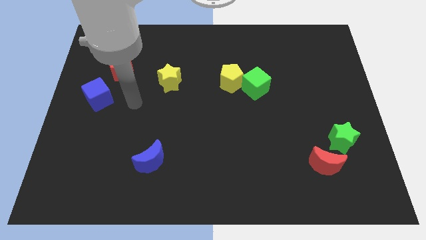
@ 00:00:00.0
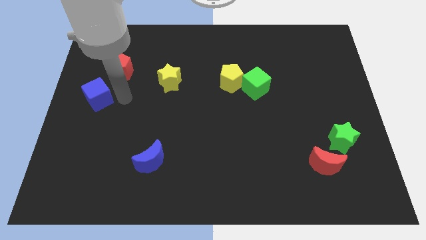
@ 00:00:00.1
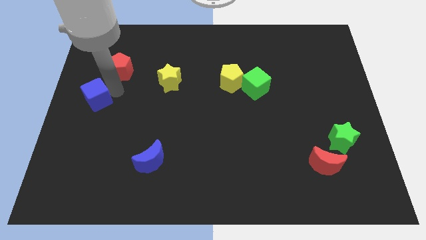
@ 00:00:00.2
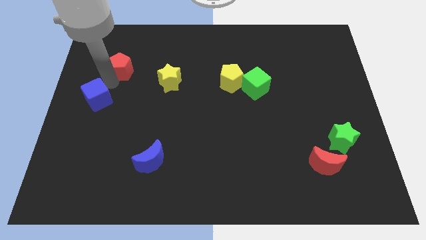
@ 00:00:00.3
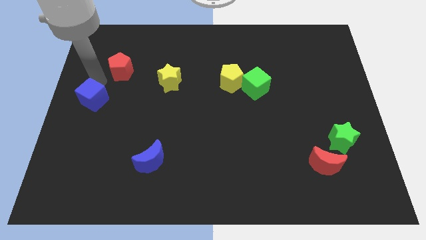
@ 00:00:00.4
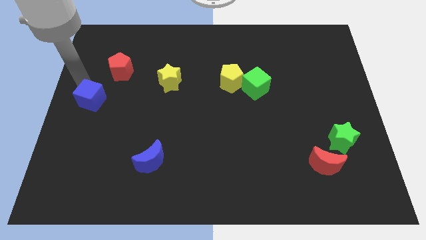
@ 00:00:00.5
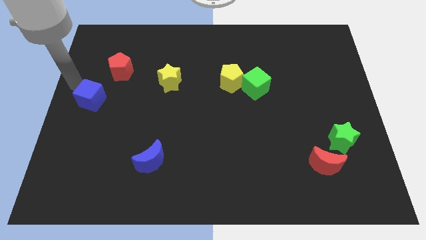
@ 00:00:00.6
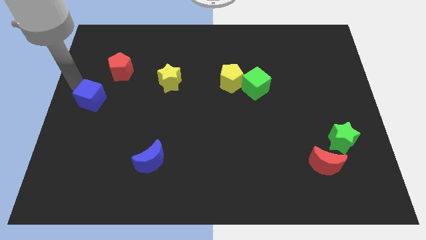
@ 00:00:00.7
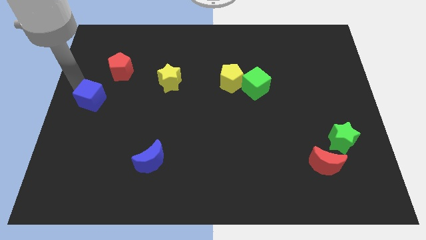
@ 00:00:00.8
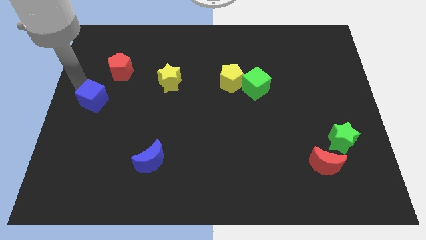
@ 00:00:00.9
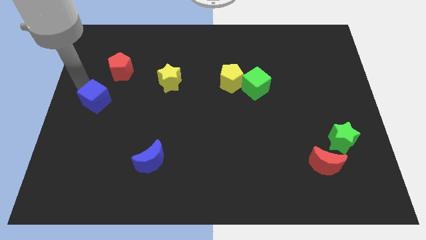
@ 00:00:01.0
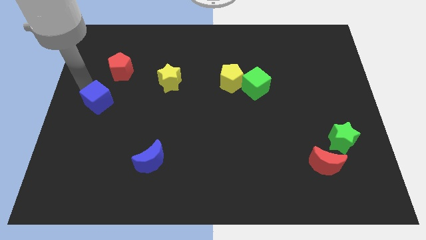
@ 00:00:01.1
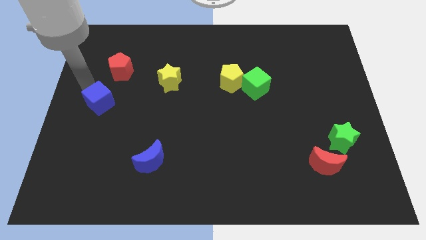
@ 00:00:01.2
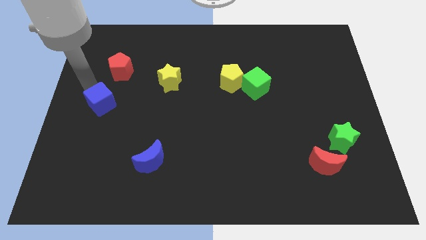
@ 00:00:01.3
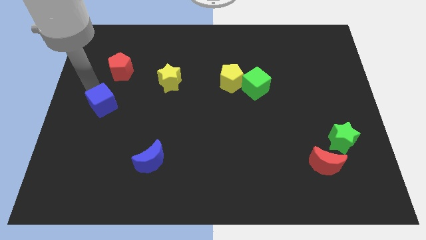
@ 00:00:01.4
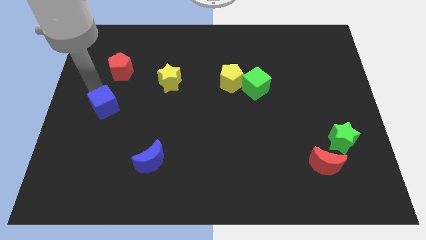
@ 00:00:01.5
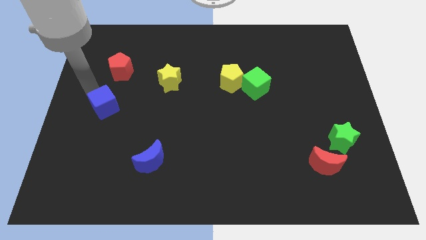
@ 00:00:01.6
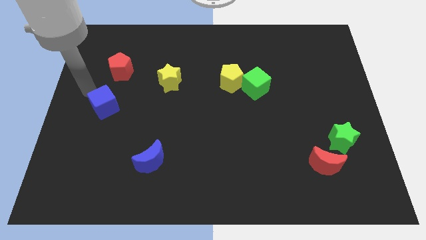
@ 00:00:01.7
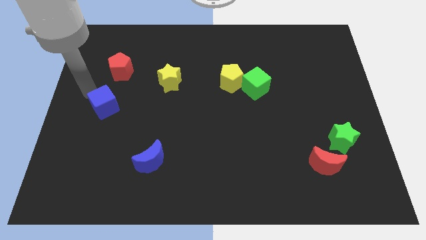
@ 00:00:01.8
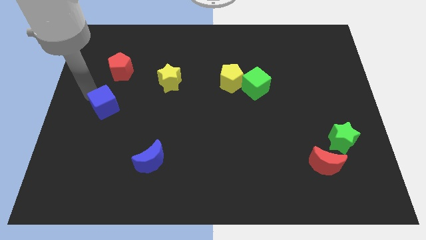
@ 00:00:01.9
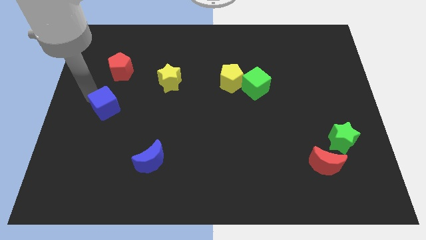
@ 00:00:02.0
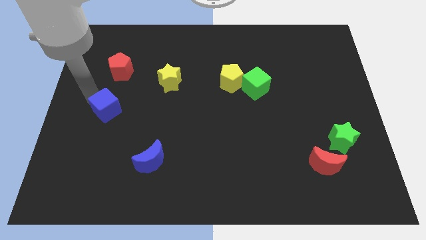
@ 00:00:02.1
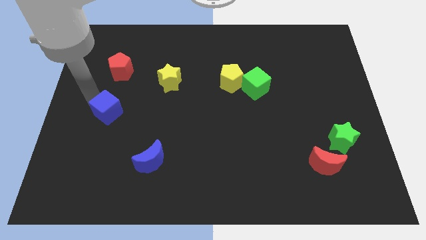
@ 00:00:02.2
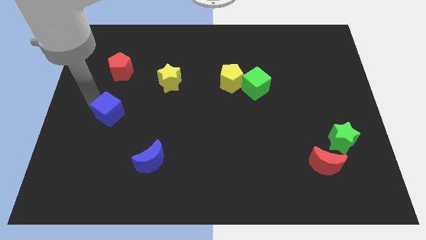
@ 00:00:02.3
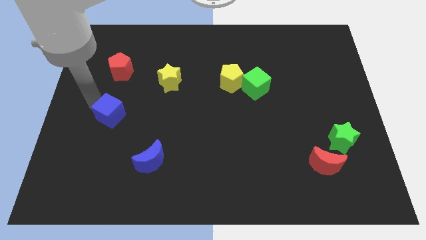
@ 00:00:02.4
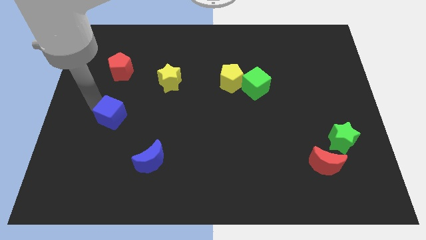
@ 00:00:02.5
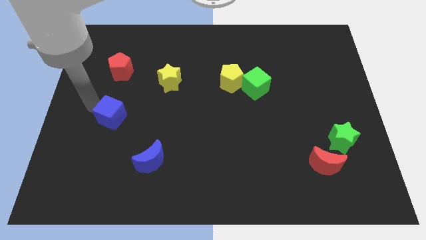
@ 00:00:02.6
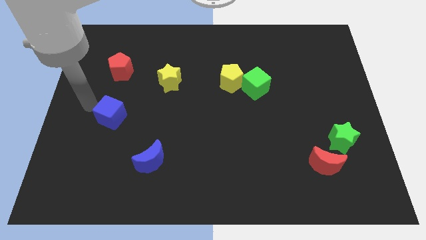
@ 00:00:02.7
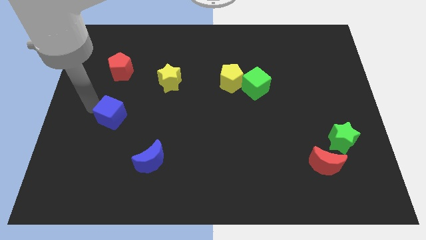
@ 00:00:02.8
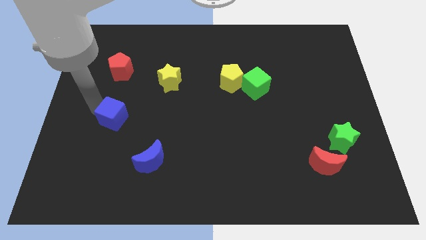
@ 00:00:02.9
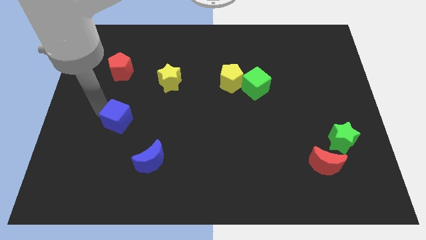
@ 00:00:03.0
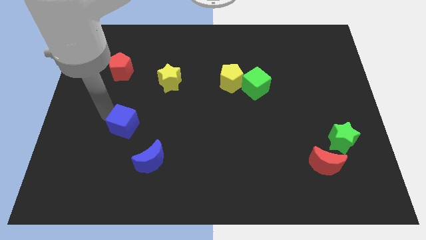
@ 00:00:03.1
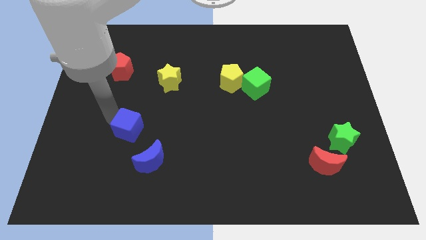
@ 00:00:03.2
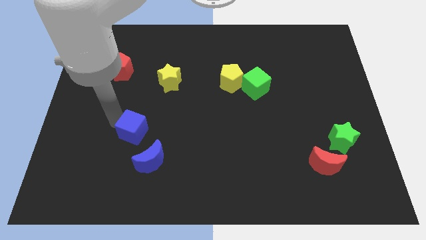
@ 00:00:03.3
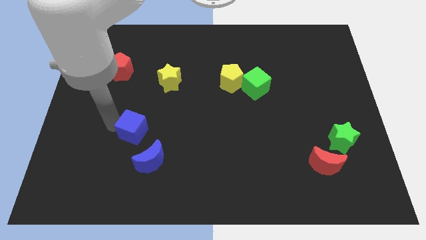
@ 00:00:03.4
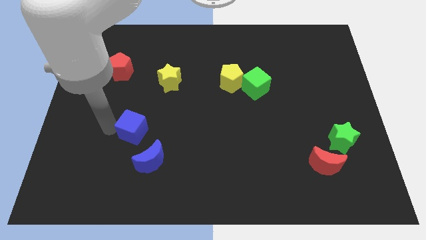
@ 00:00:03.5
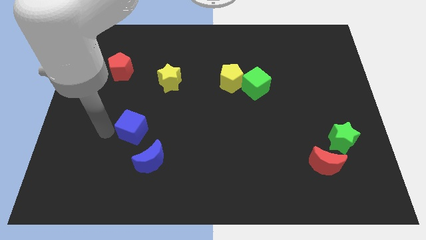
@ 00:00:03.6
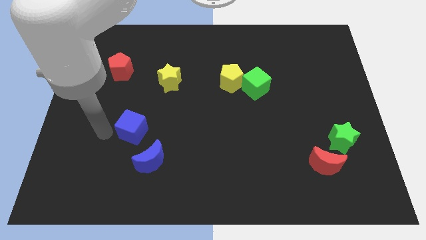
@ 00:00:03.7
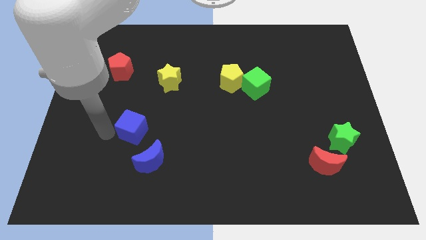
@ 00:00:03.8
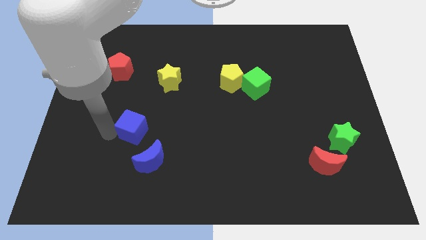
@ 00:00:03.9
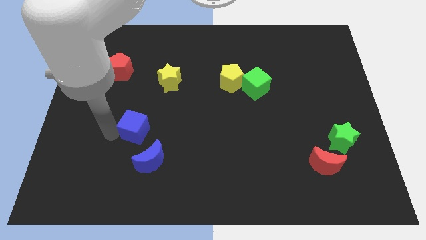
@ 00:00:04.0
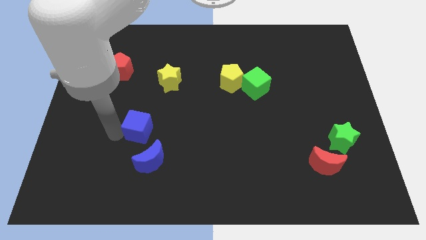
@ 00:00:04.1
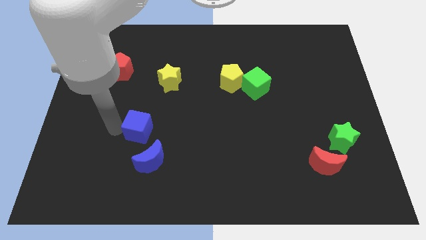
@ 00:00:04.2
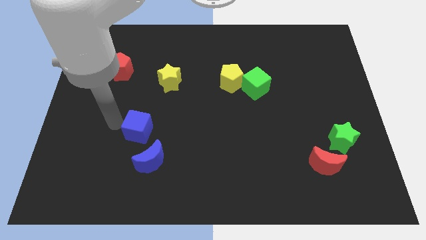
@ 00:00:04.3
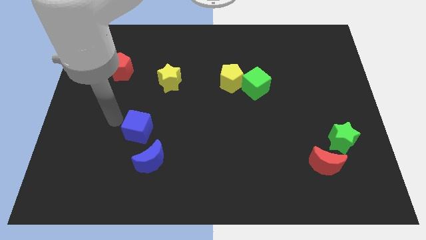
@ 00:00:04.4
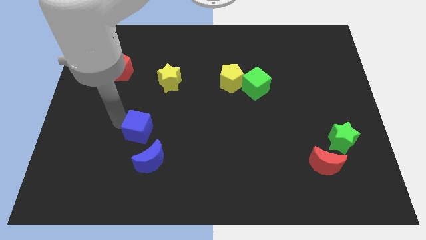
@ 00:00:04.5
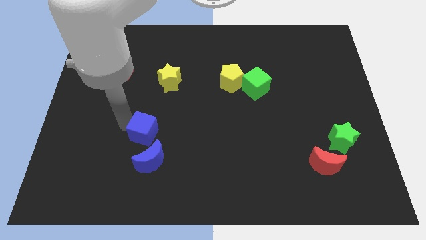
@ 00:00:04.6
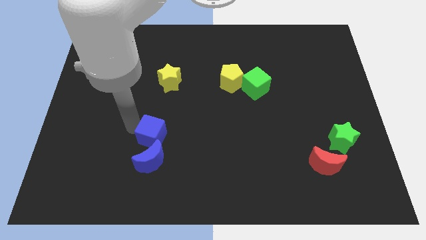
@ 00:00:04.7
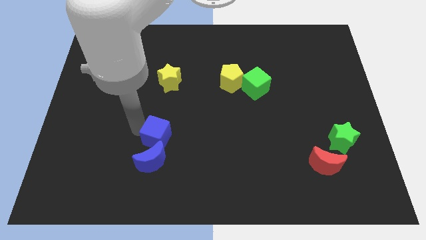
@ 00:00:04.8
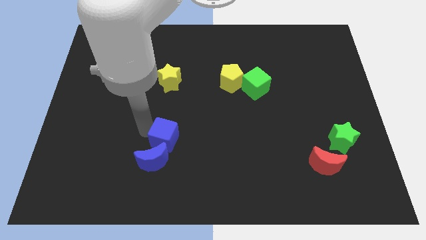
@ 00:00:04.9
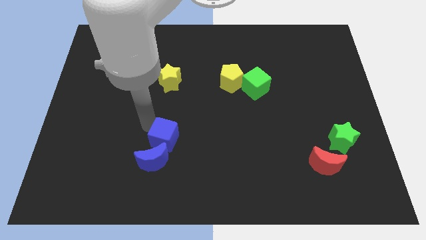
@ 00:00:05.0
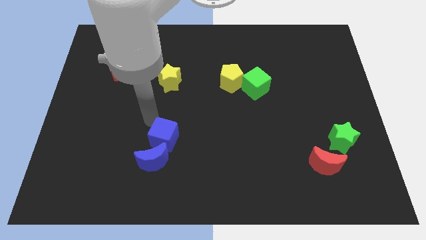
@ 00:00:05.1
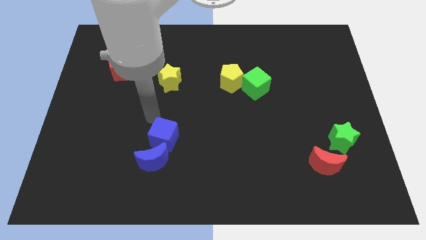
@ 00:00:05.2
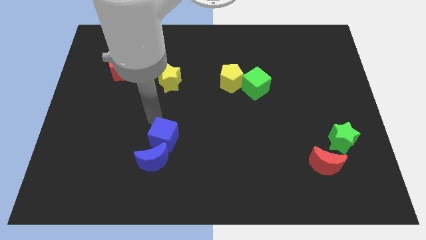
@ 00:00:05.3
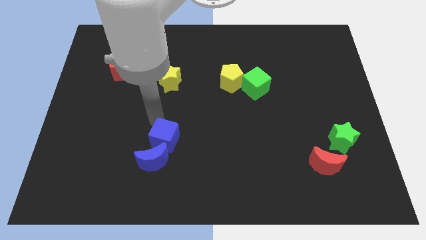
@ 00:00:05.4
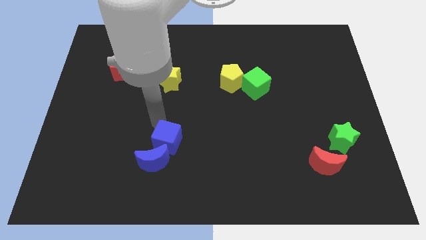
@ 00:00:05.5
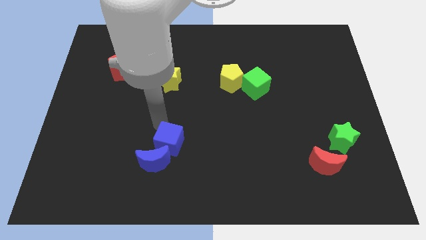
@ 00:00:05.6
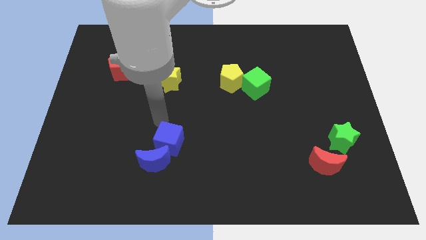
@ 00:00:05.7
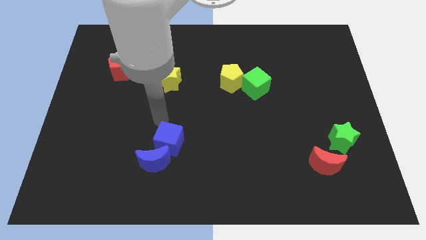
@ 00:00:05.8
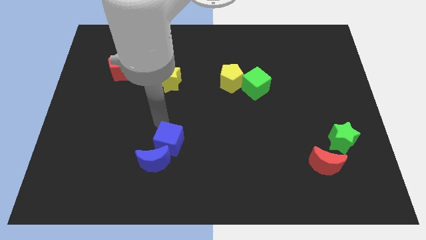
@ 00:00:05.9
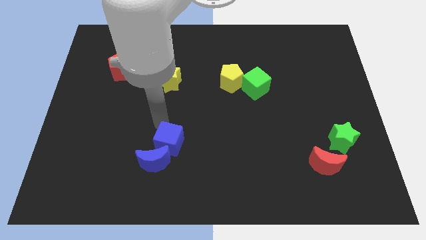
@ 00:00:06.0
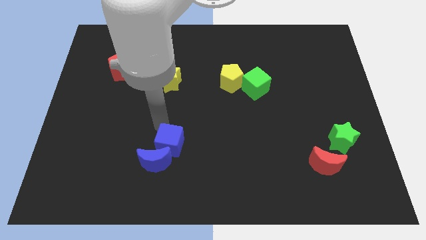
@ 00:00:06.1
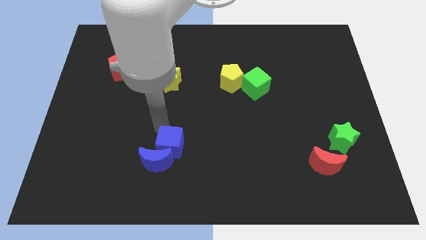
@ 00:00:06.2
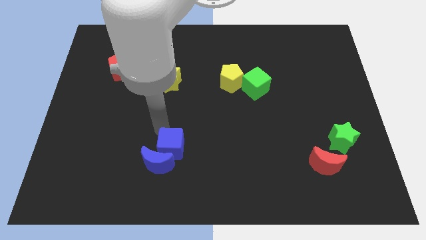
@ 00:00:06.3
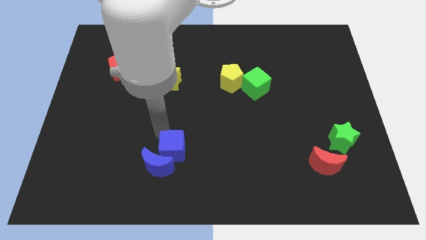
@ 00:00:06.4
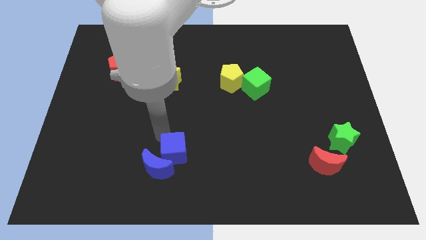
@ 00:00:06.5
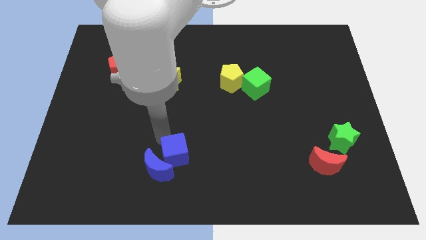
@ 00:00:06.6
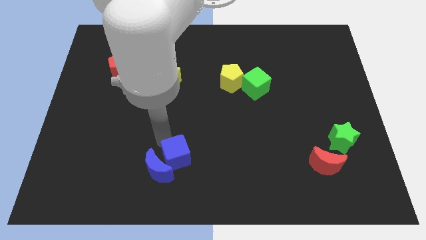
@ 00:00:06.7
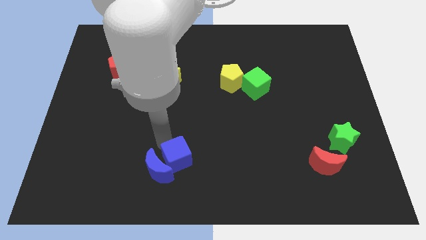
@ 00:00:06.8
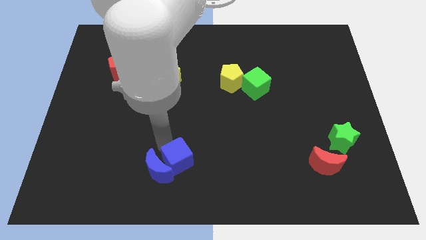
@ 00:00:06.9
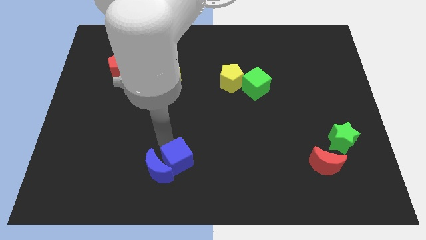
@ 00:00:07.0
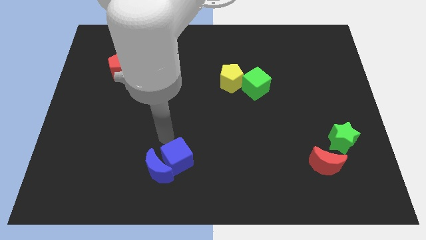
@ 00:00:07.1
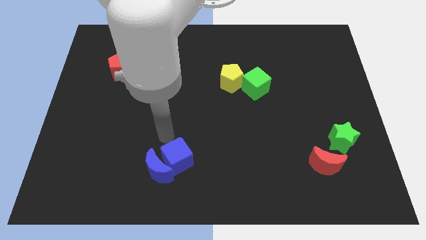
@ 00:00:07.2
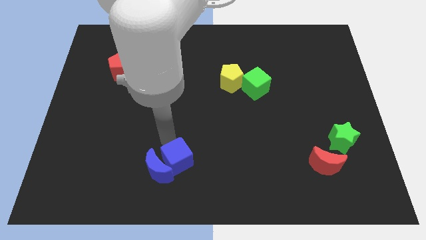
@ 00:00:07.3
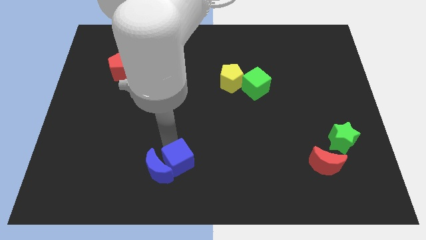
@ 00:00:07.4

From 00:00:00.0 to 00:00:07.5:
put the blue cube to the bottom
